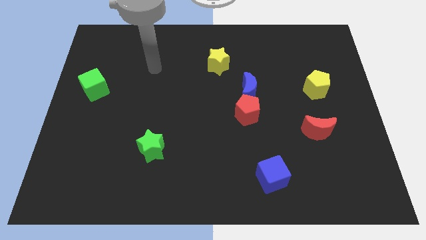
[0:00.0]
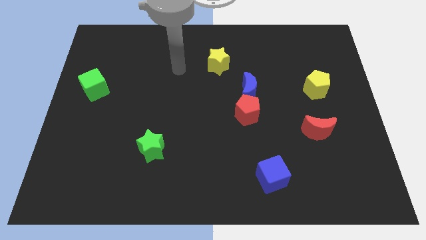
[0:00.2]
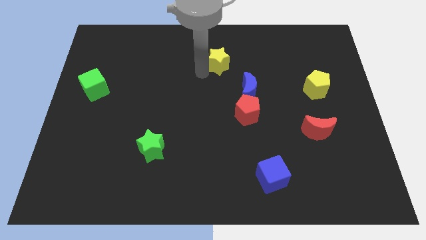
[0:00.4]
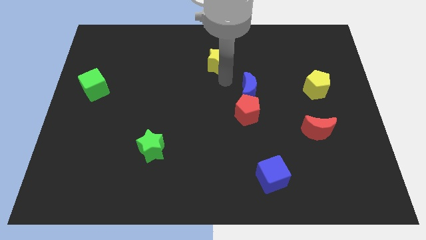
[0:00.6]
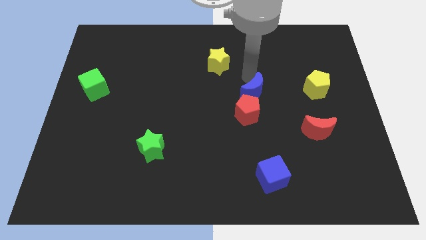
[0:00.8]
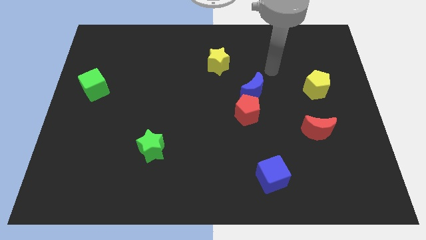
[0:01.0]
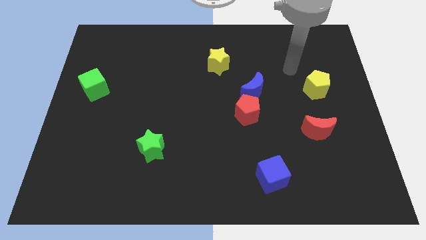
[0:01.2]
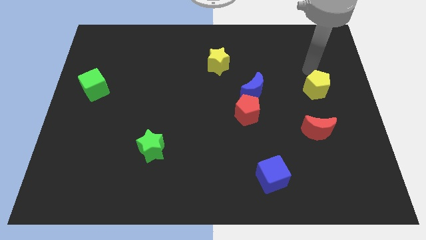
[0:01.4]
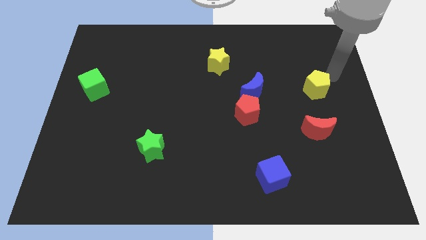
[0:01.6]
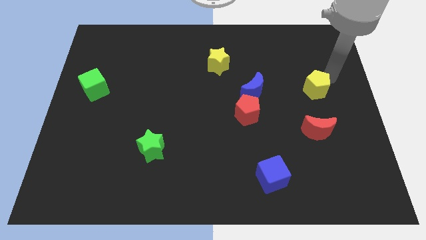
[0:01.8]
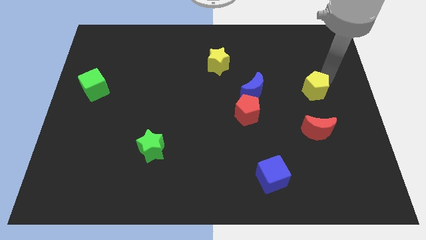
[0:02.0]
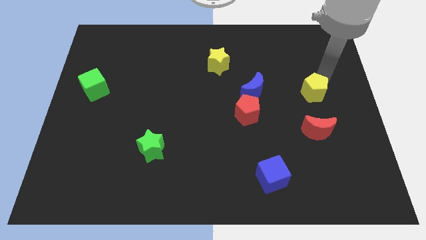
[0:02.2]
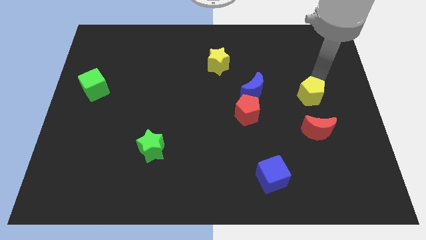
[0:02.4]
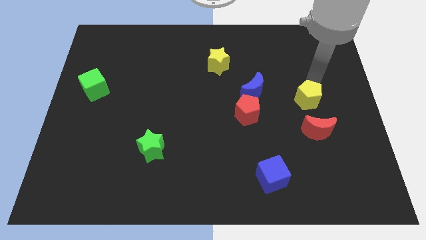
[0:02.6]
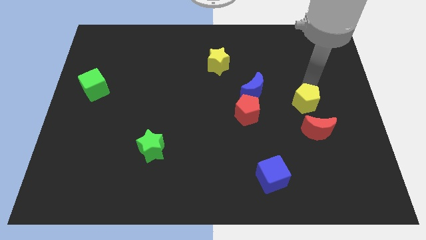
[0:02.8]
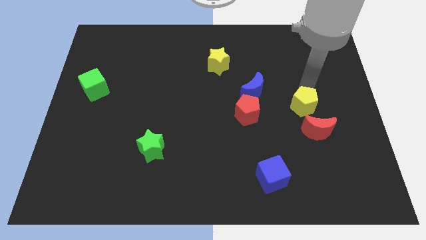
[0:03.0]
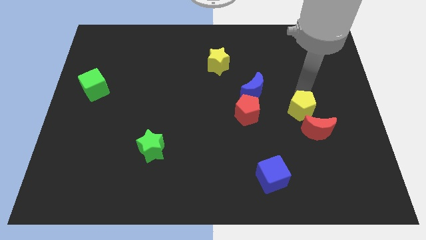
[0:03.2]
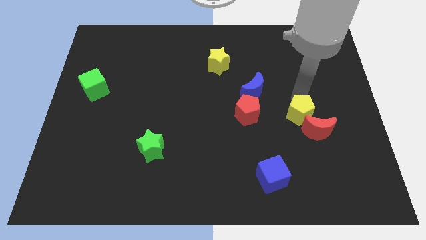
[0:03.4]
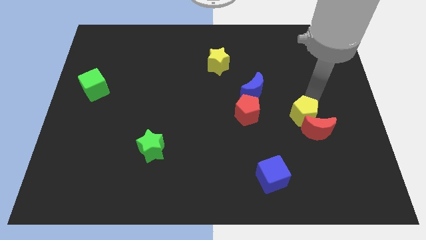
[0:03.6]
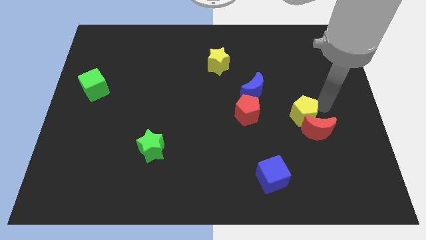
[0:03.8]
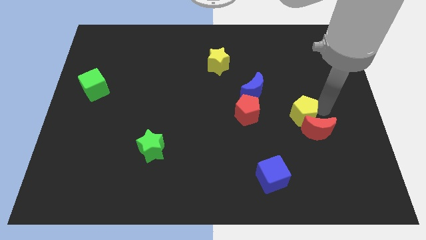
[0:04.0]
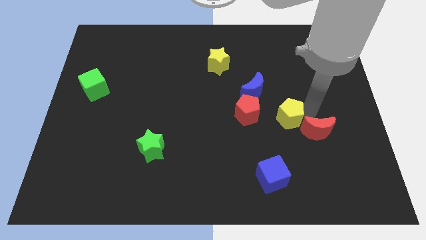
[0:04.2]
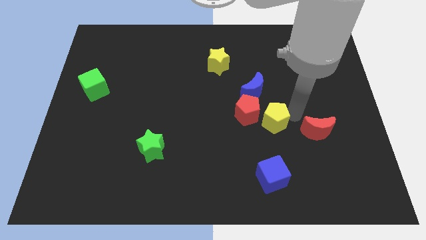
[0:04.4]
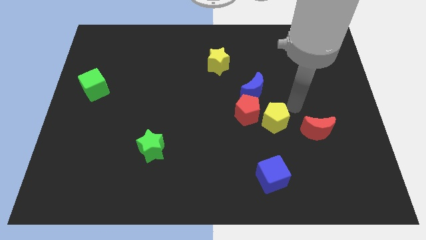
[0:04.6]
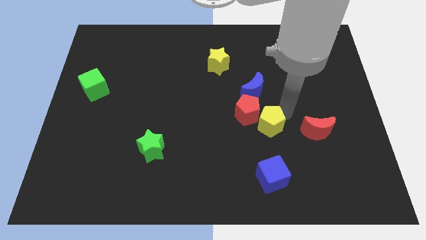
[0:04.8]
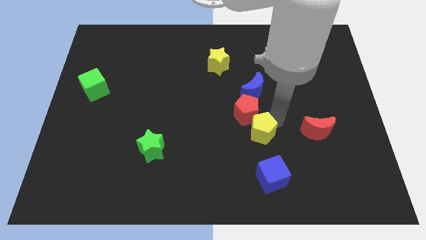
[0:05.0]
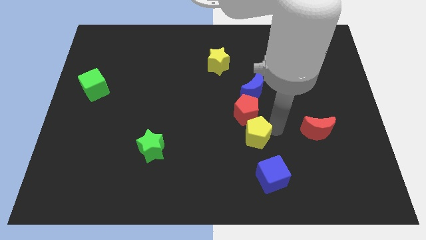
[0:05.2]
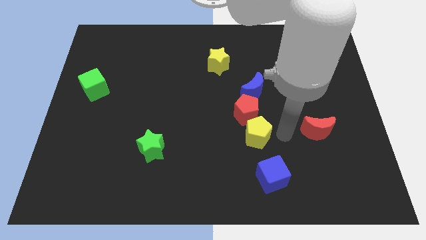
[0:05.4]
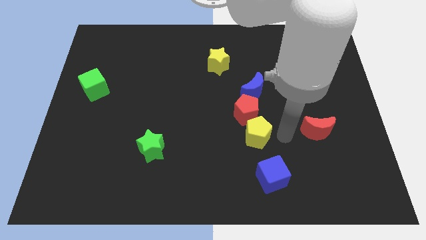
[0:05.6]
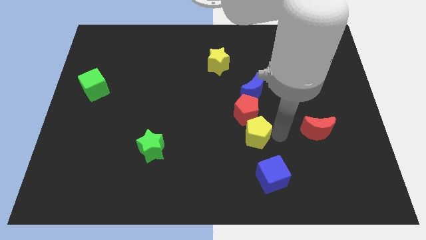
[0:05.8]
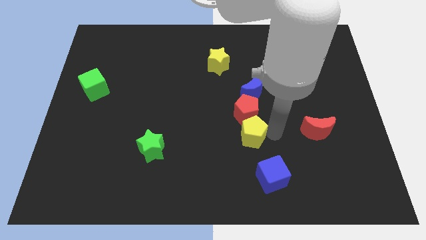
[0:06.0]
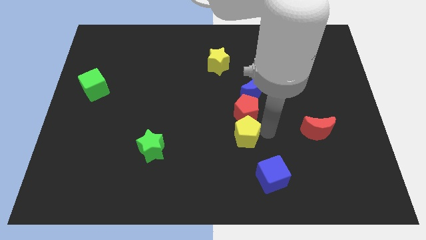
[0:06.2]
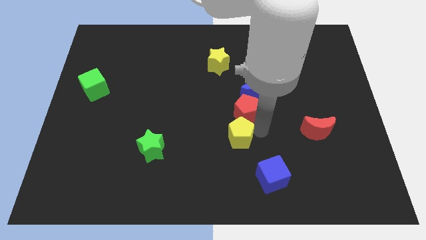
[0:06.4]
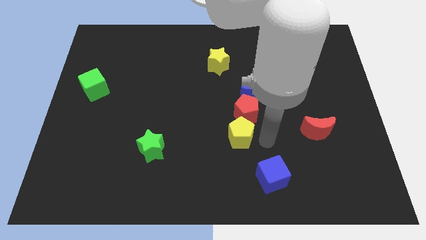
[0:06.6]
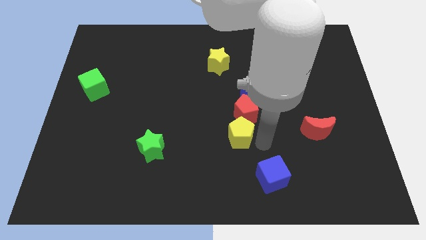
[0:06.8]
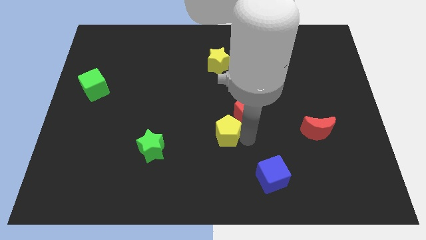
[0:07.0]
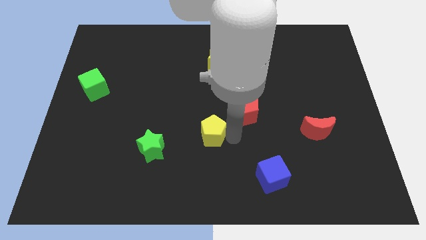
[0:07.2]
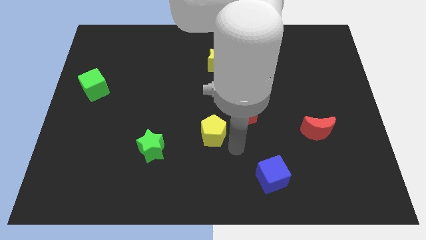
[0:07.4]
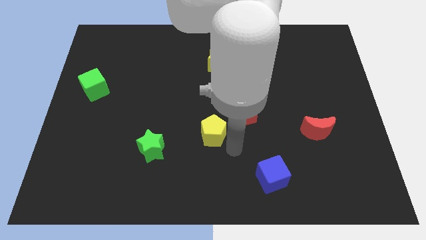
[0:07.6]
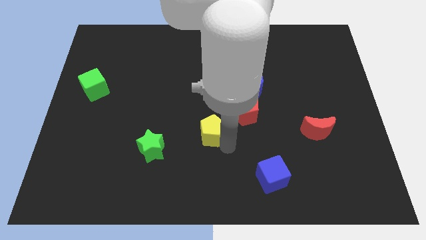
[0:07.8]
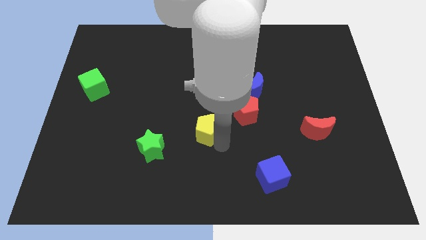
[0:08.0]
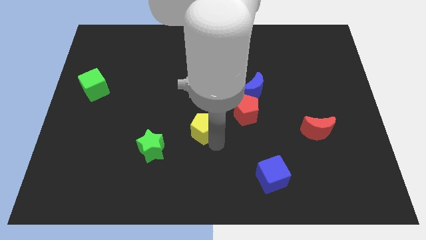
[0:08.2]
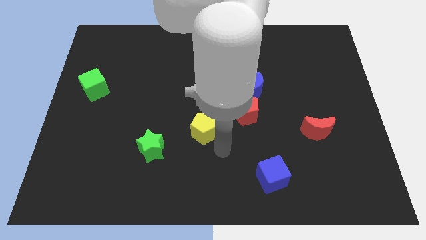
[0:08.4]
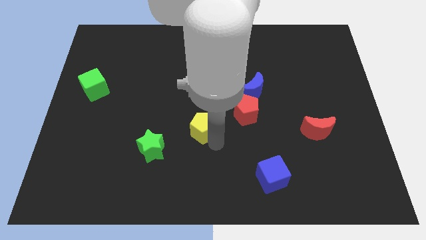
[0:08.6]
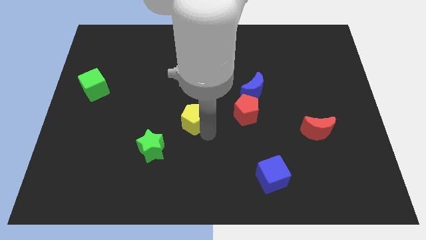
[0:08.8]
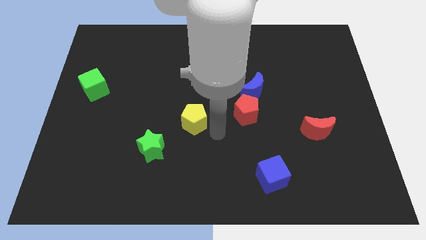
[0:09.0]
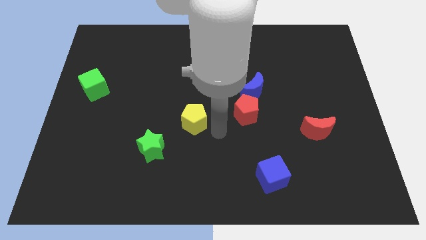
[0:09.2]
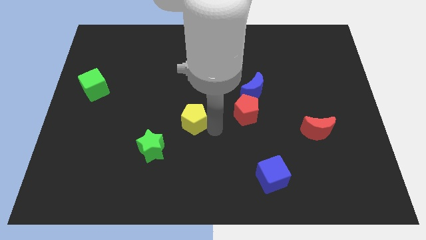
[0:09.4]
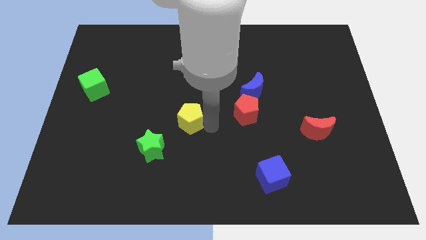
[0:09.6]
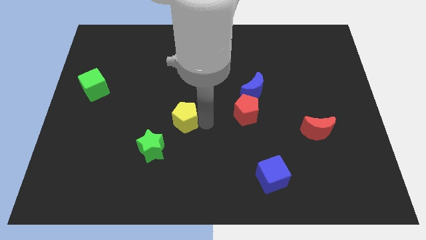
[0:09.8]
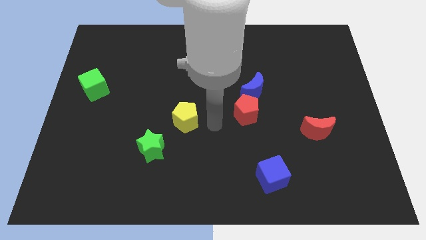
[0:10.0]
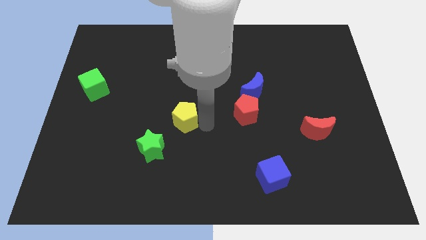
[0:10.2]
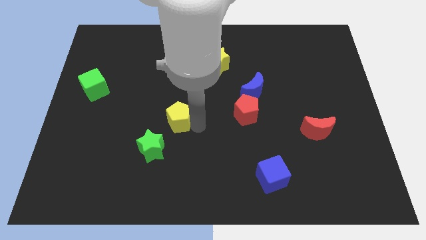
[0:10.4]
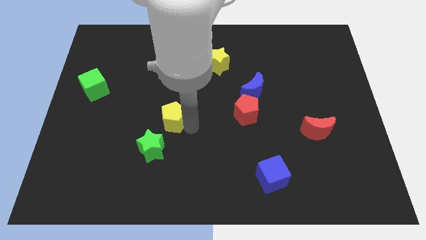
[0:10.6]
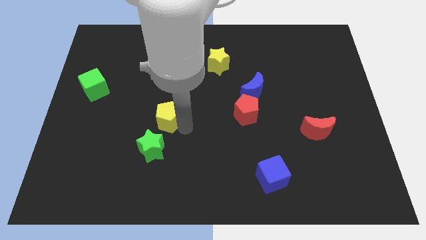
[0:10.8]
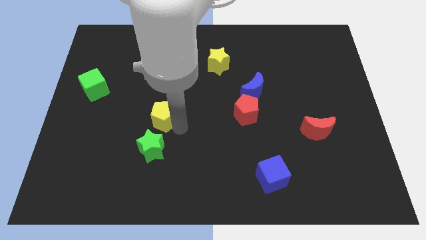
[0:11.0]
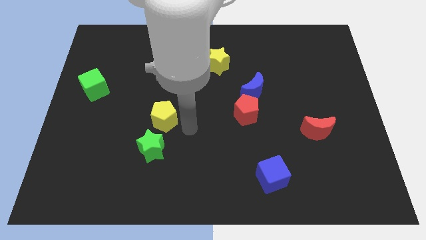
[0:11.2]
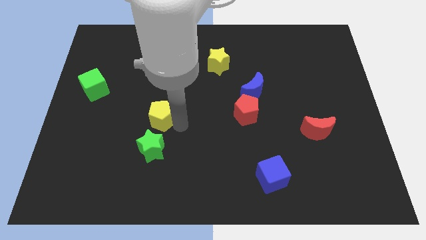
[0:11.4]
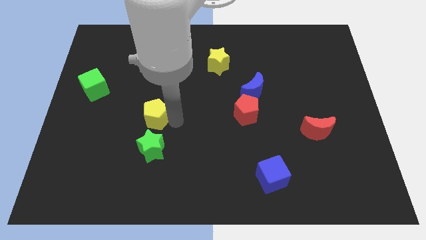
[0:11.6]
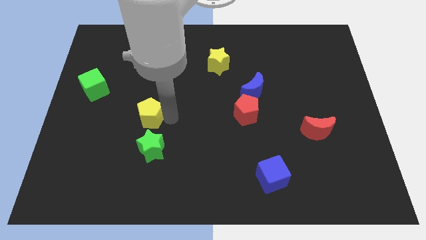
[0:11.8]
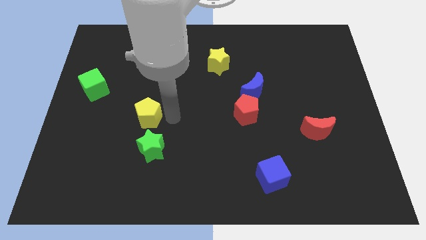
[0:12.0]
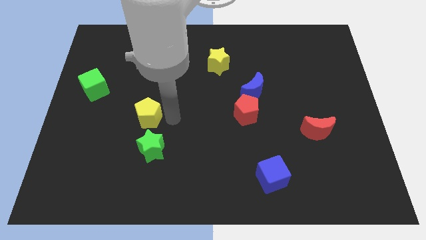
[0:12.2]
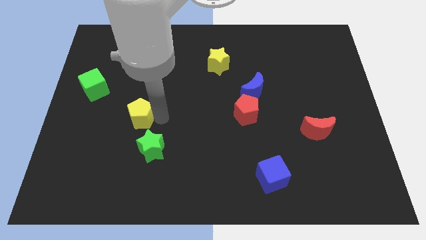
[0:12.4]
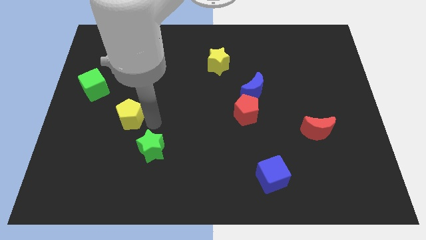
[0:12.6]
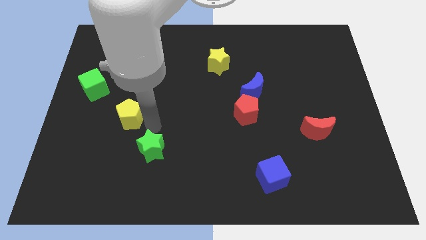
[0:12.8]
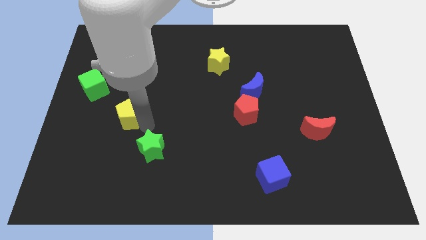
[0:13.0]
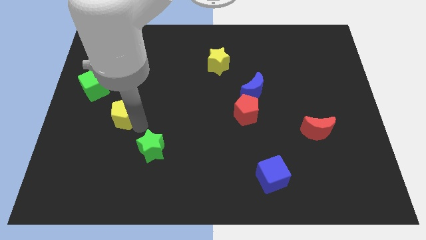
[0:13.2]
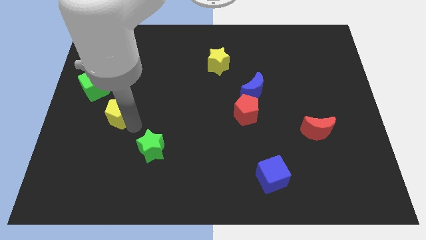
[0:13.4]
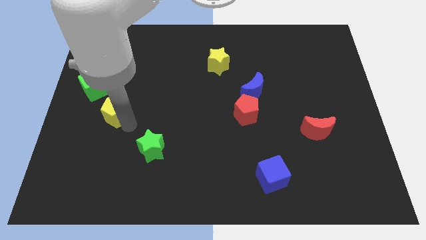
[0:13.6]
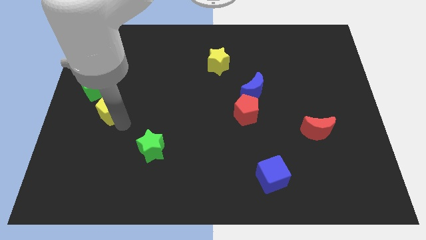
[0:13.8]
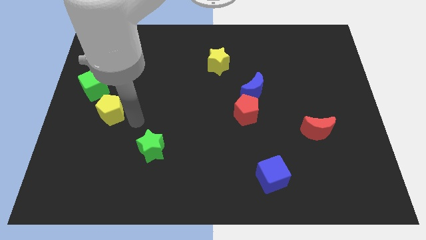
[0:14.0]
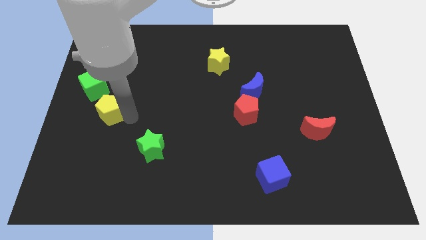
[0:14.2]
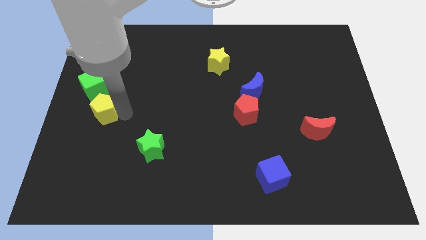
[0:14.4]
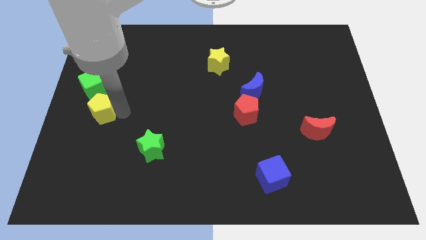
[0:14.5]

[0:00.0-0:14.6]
push the yellow pentagon to the center left
